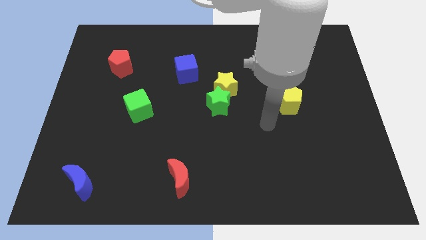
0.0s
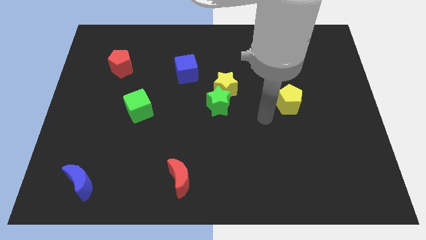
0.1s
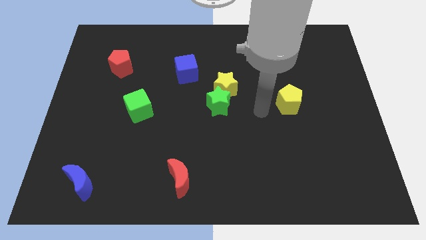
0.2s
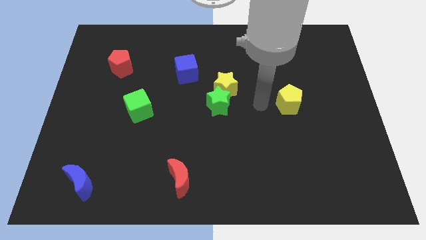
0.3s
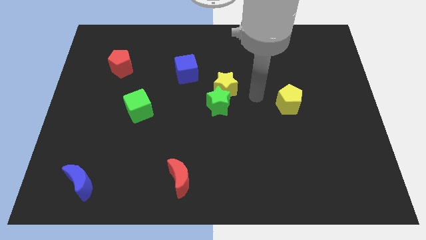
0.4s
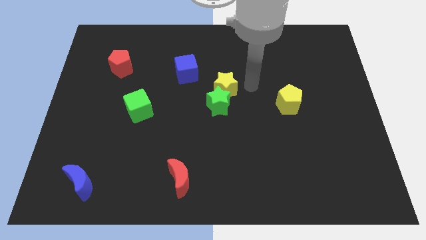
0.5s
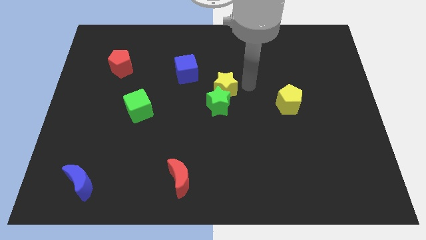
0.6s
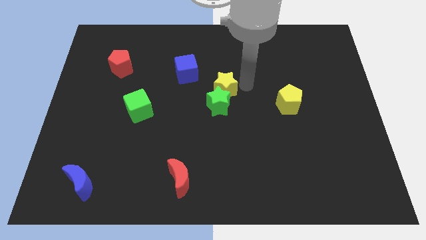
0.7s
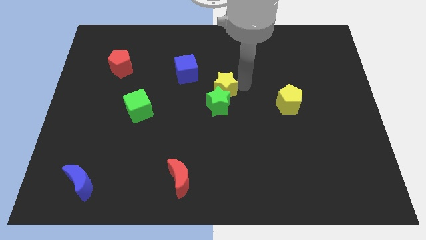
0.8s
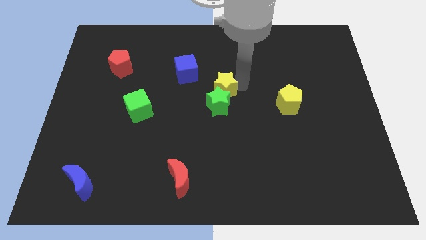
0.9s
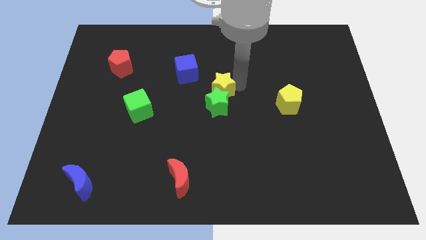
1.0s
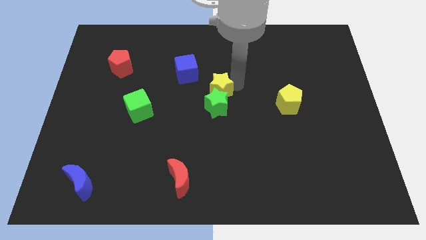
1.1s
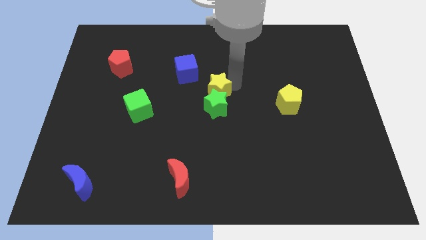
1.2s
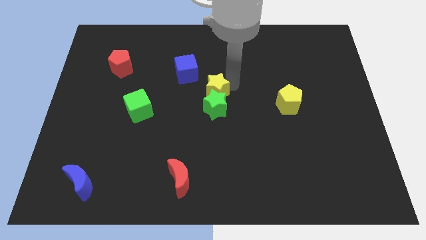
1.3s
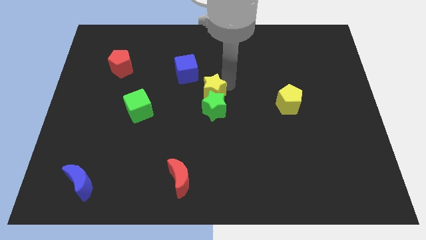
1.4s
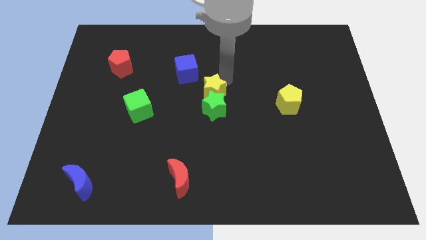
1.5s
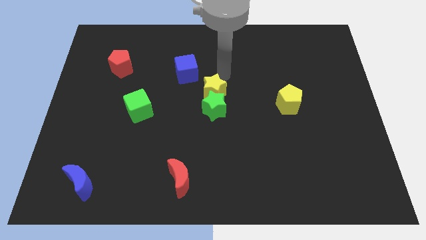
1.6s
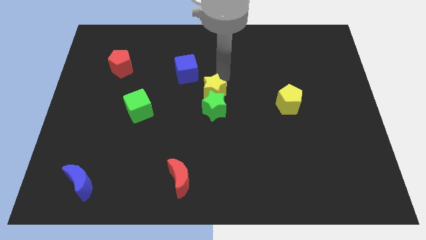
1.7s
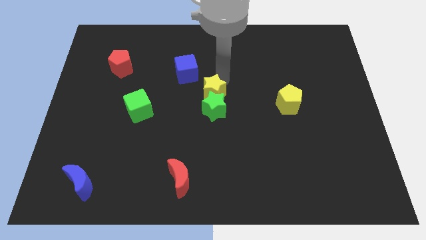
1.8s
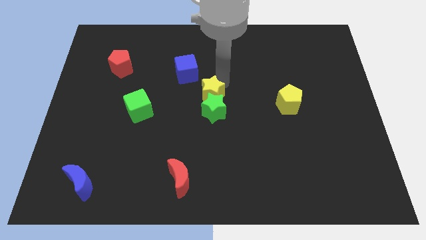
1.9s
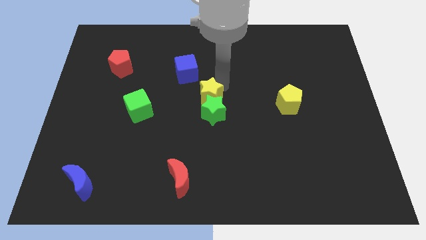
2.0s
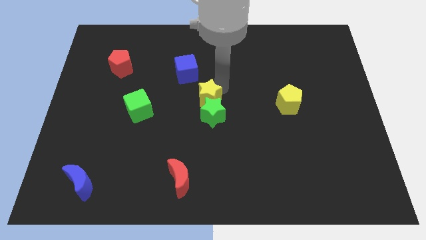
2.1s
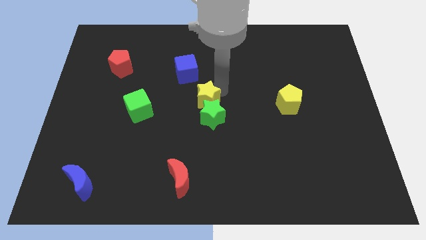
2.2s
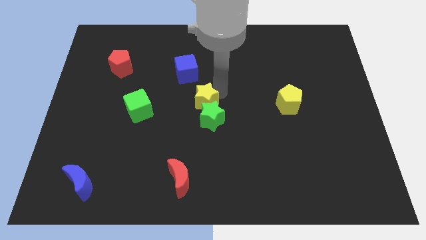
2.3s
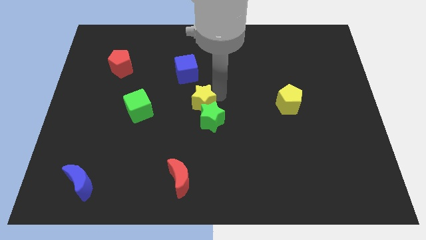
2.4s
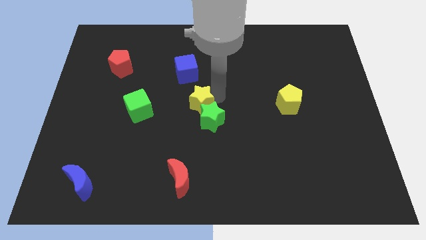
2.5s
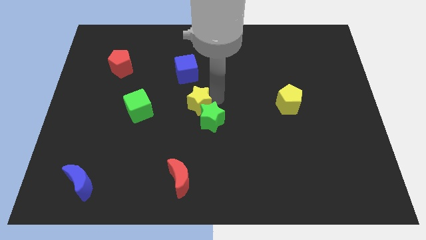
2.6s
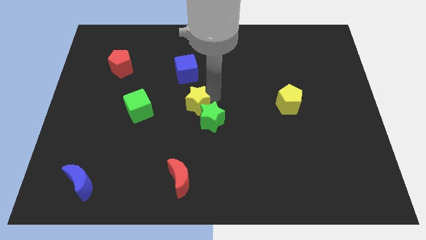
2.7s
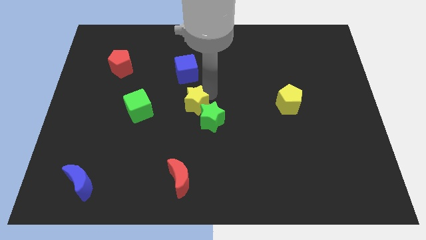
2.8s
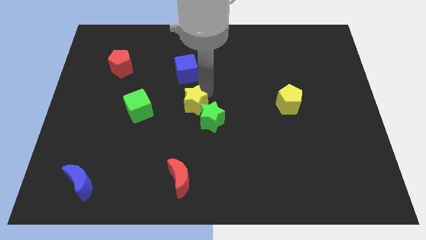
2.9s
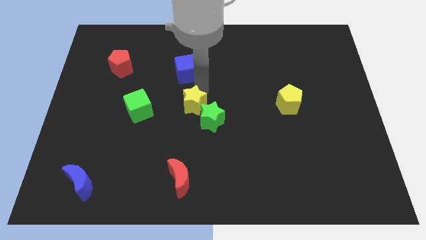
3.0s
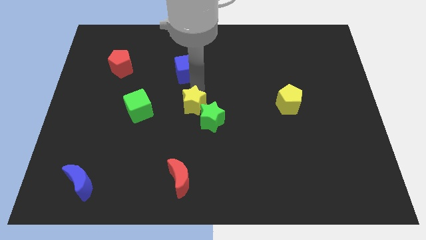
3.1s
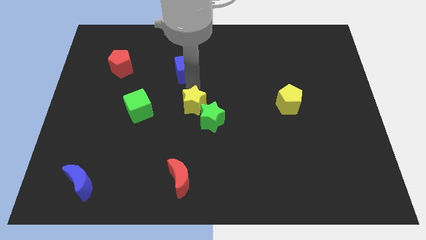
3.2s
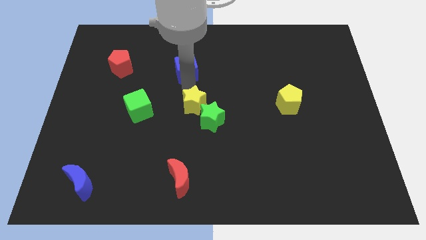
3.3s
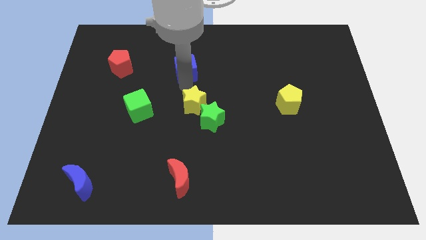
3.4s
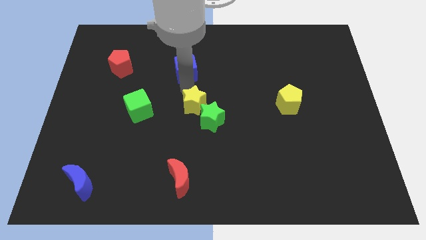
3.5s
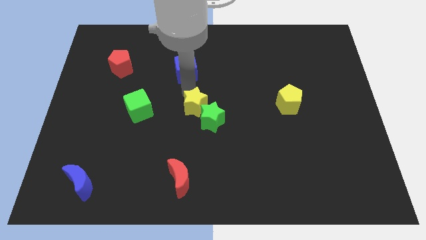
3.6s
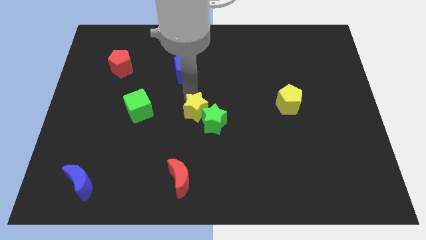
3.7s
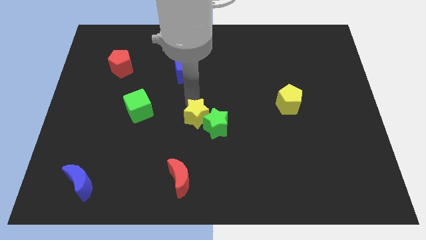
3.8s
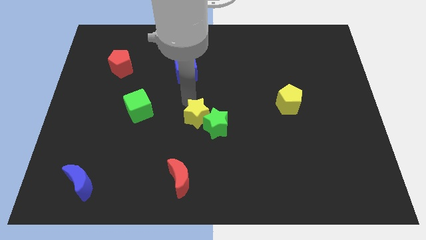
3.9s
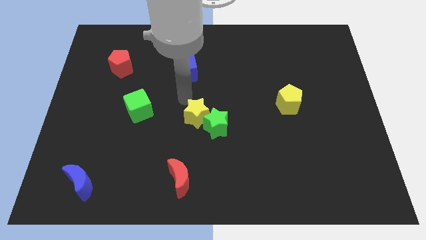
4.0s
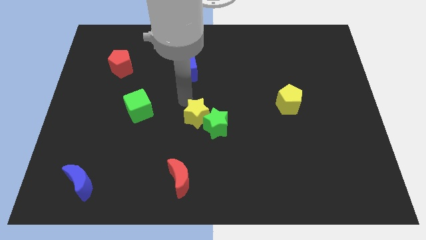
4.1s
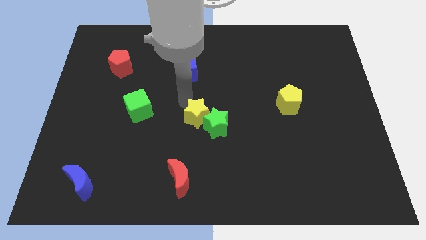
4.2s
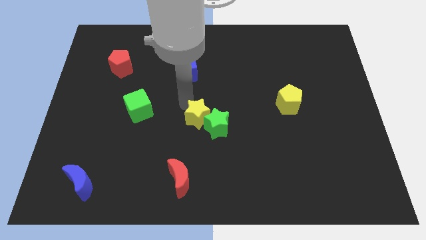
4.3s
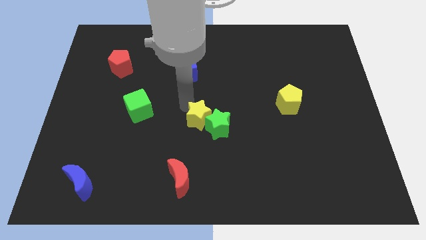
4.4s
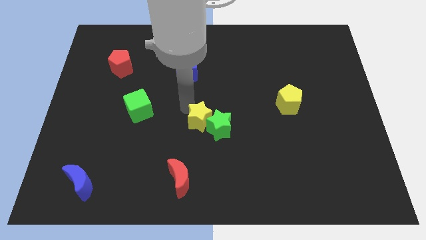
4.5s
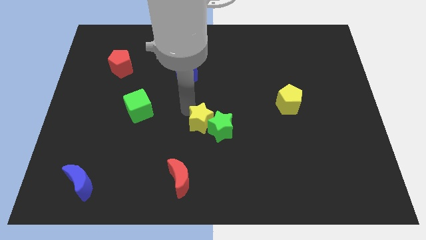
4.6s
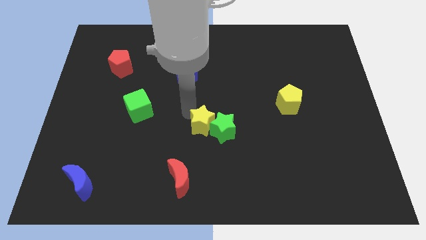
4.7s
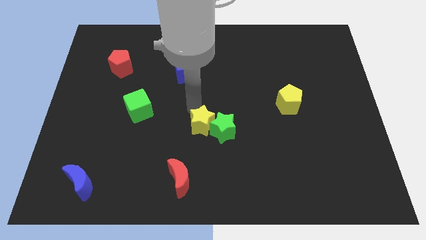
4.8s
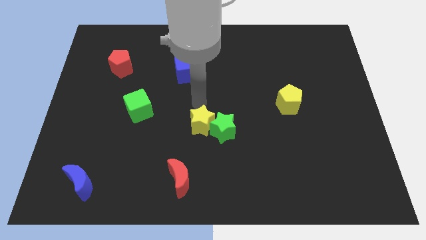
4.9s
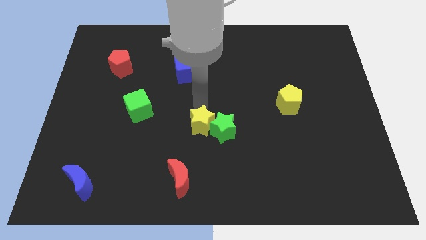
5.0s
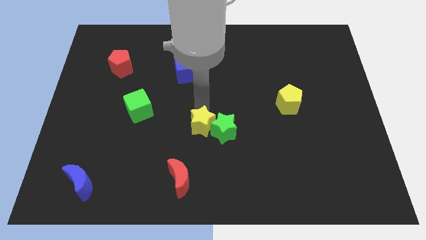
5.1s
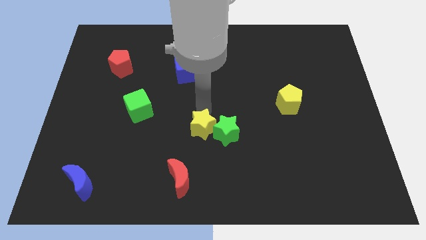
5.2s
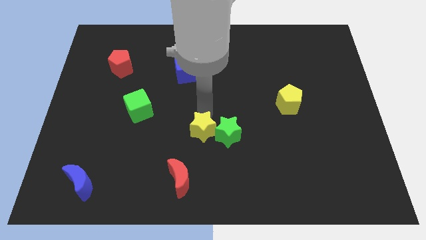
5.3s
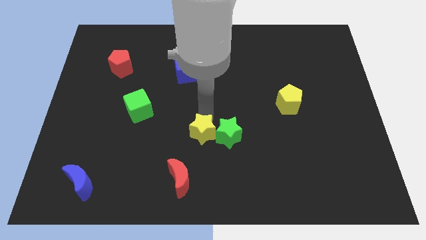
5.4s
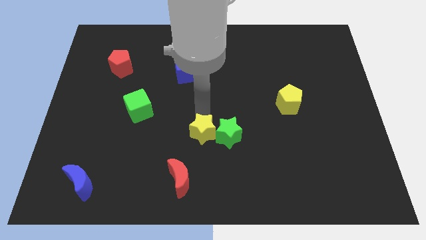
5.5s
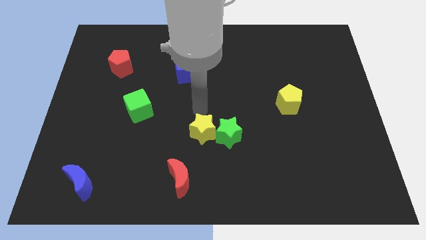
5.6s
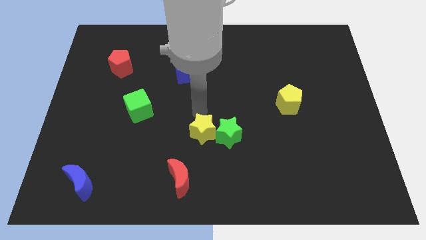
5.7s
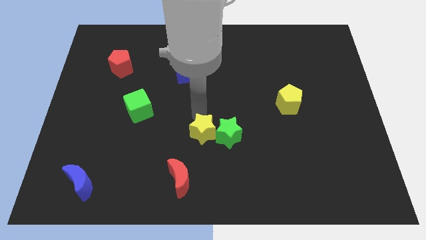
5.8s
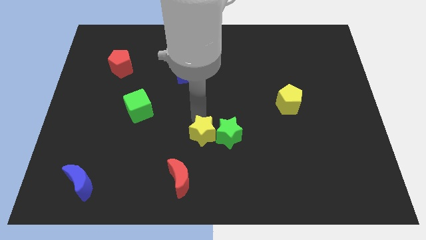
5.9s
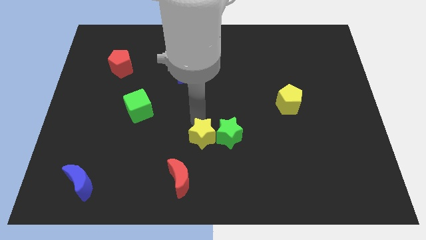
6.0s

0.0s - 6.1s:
move the yellow star to the top right of the red moon

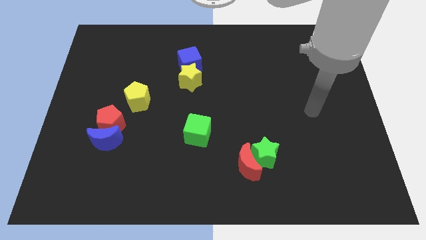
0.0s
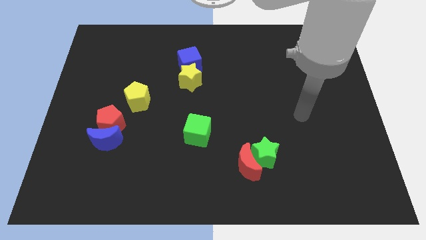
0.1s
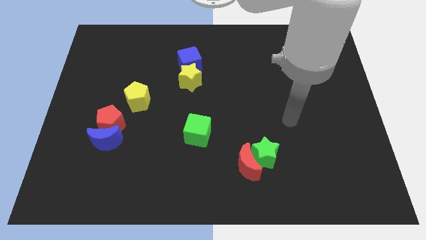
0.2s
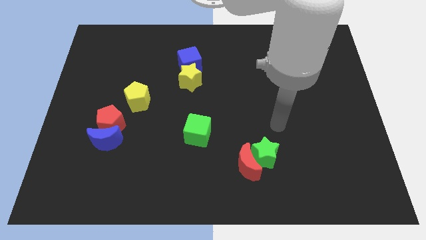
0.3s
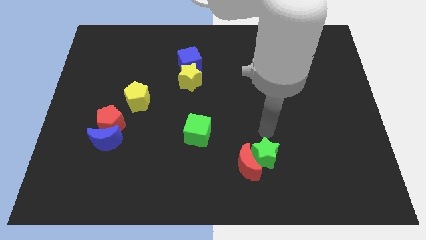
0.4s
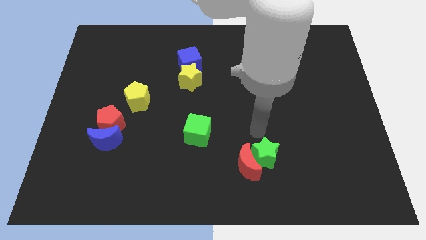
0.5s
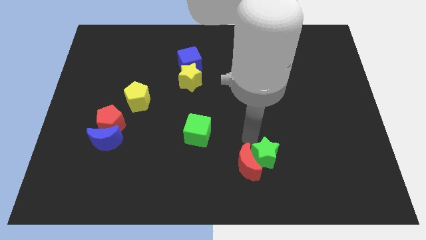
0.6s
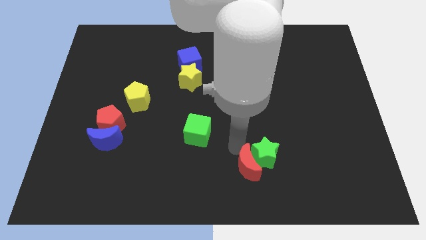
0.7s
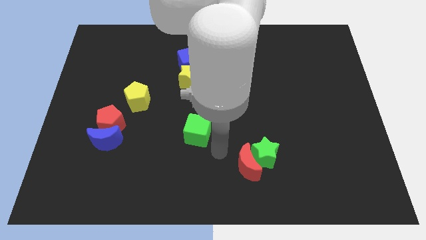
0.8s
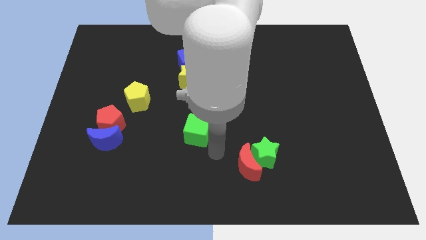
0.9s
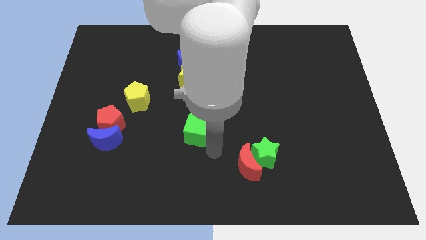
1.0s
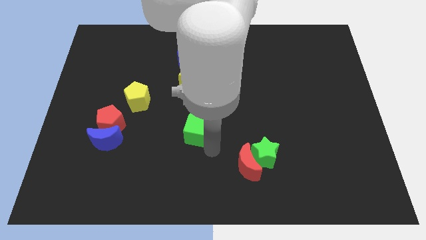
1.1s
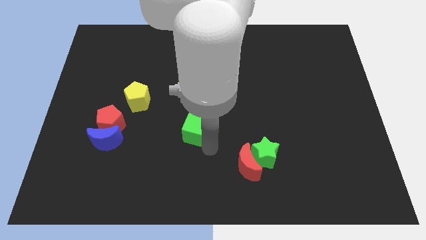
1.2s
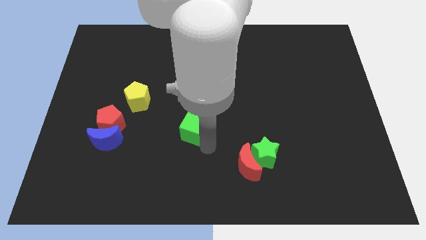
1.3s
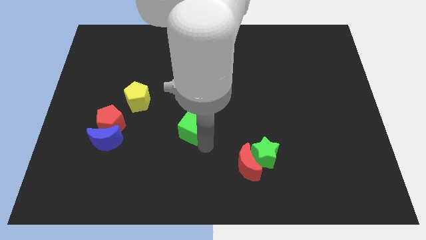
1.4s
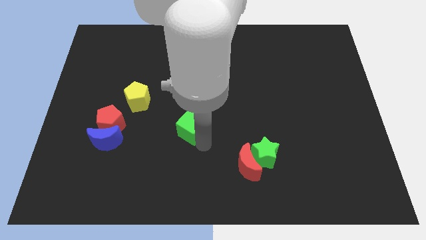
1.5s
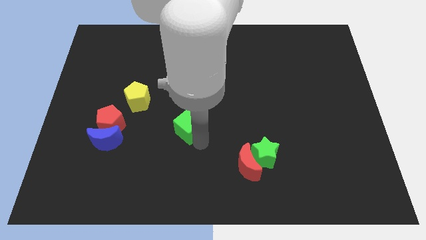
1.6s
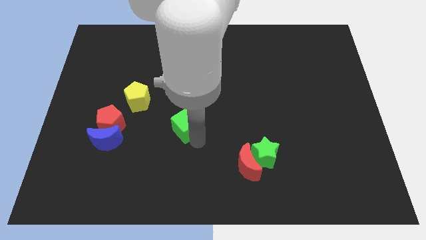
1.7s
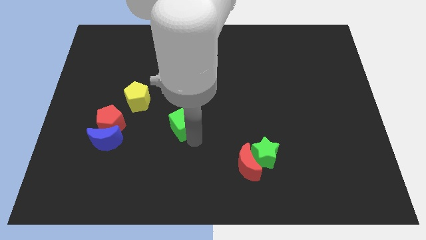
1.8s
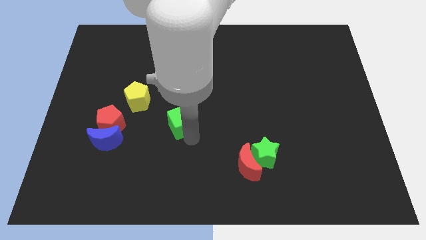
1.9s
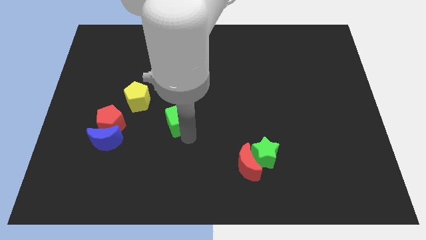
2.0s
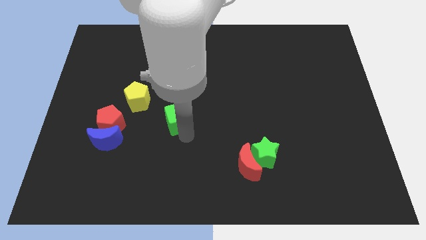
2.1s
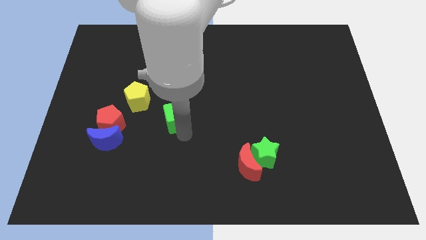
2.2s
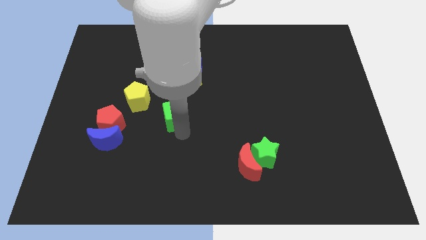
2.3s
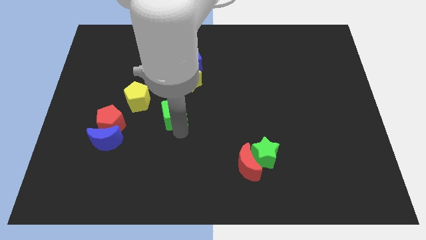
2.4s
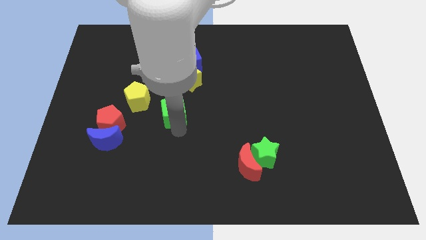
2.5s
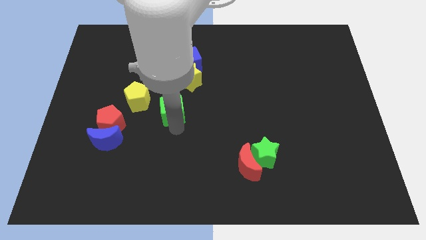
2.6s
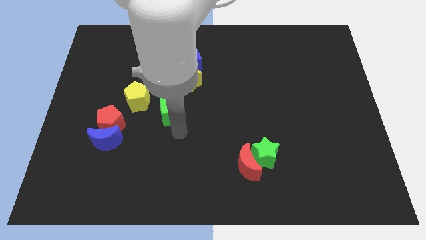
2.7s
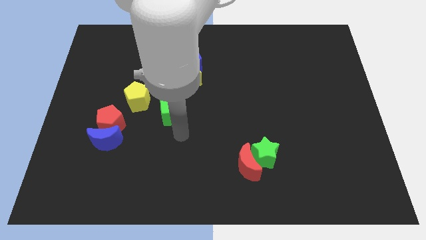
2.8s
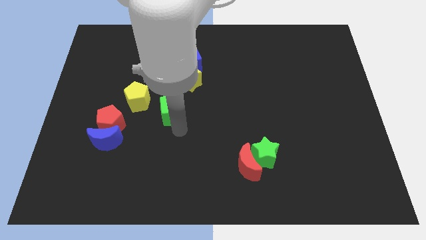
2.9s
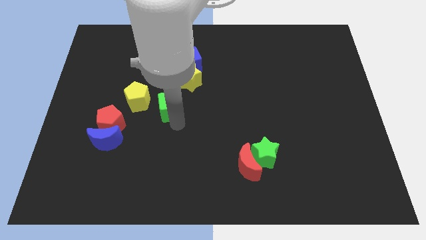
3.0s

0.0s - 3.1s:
put the green cube to the bottom left side of the yellow star
